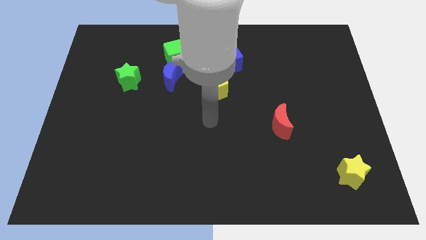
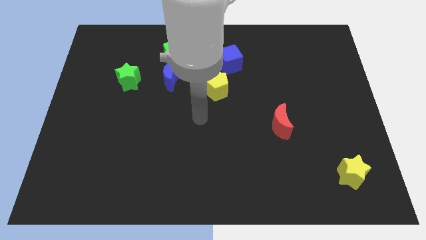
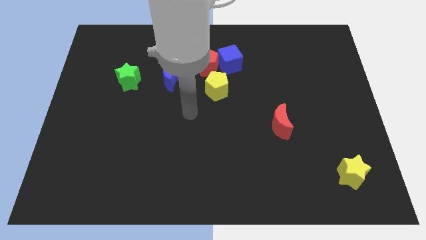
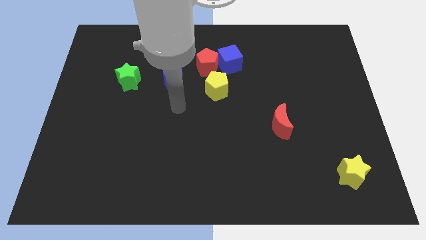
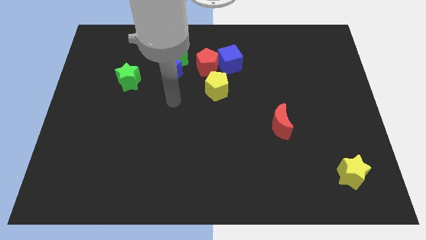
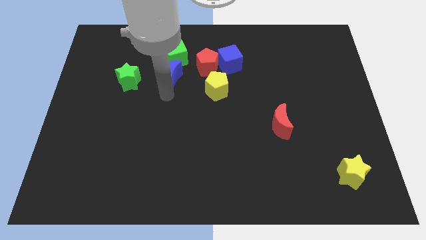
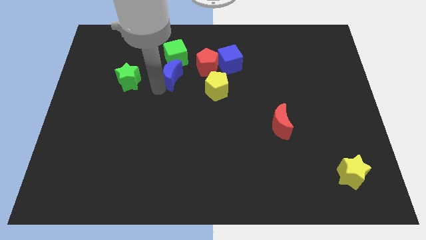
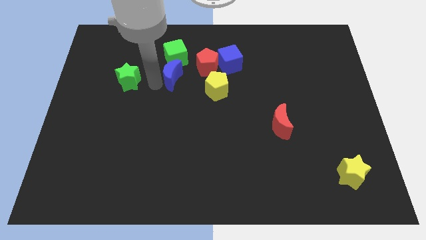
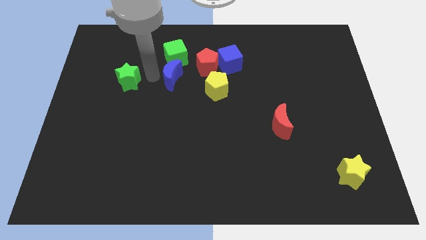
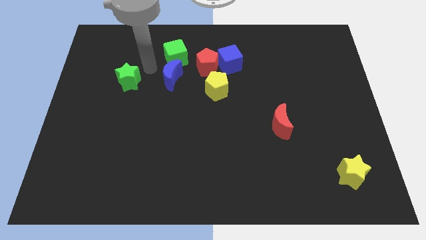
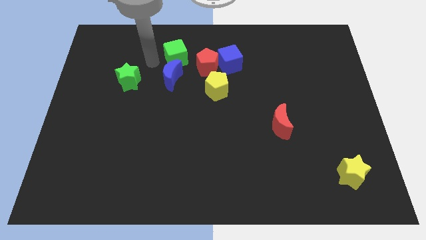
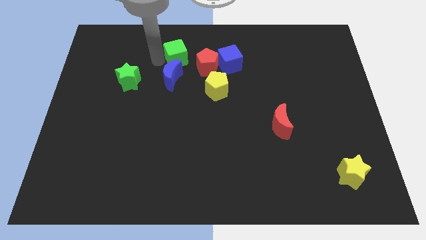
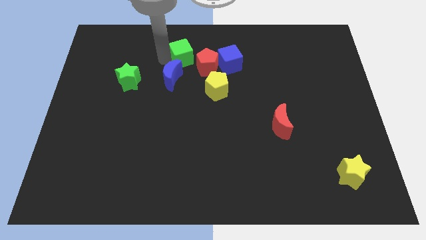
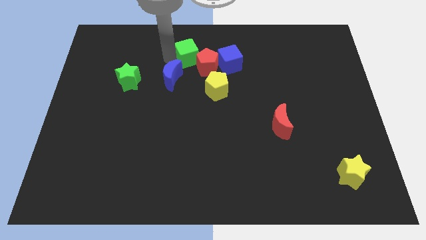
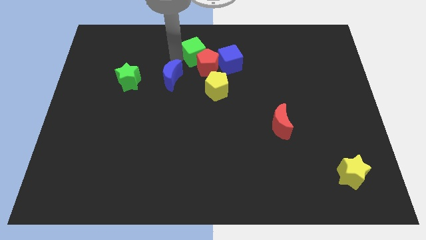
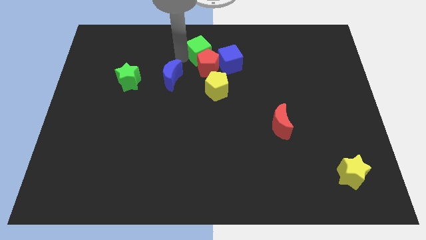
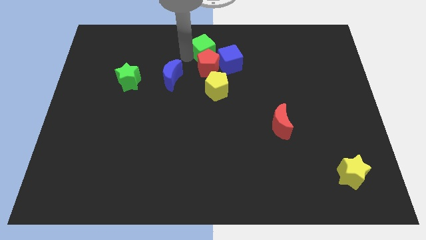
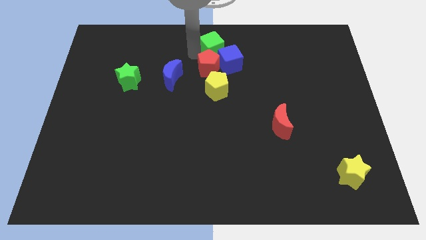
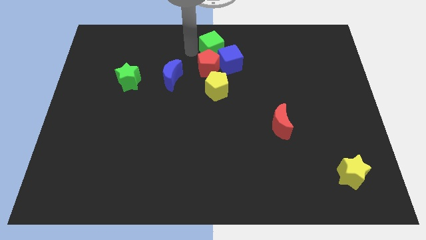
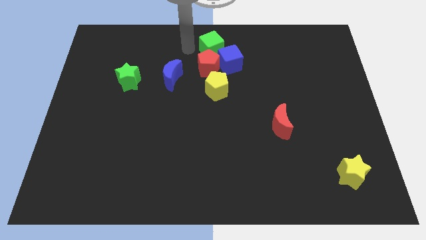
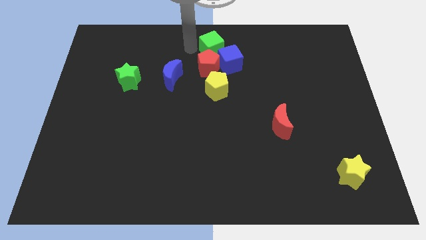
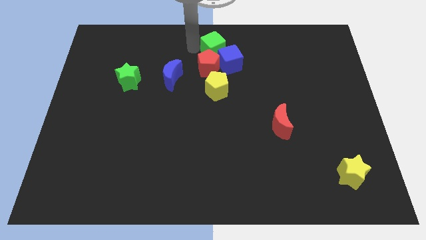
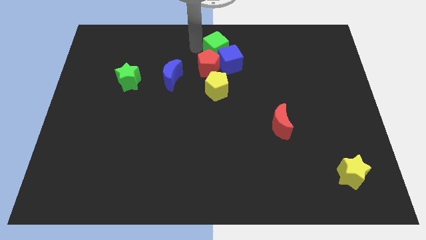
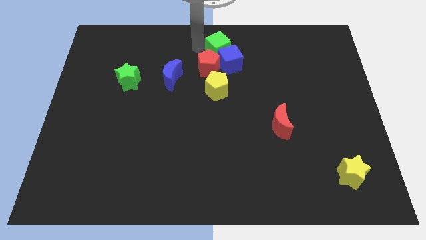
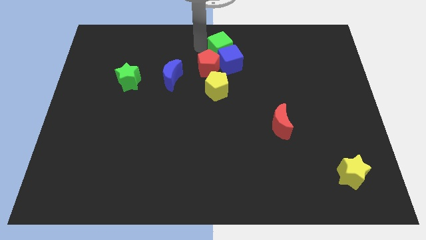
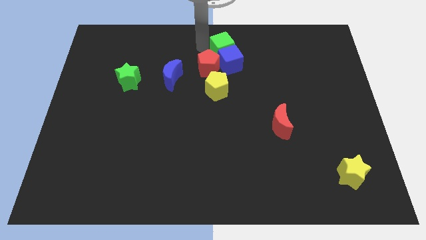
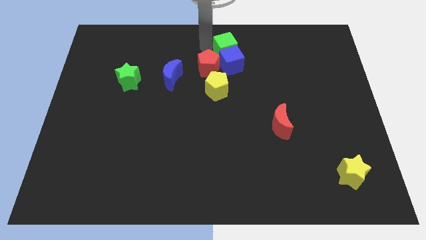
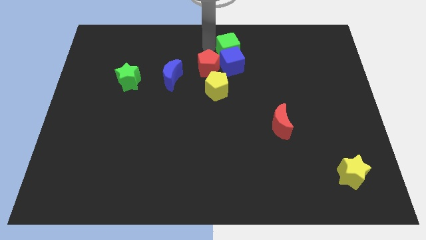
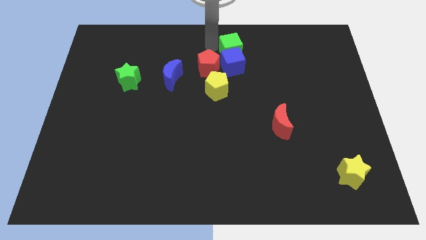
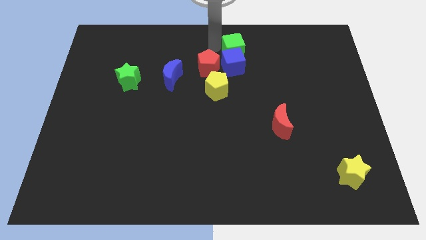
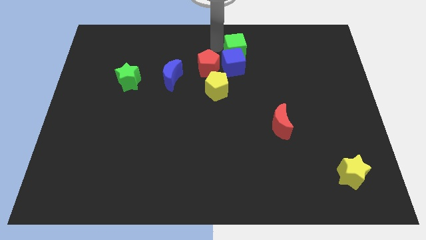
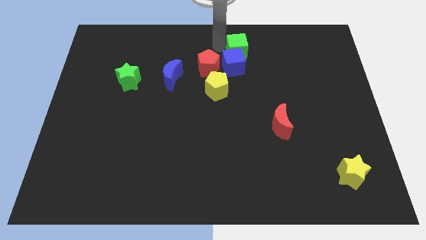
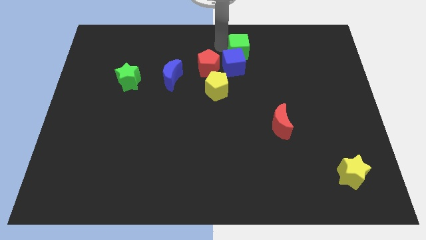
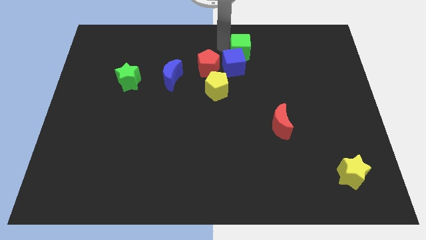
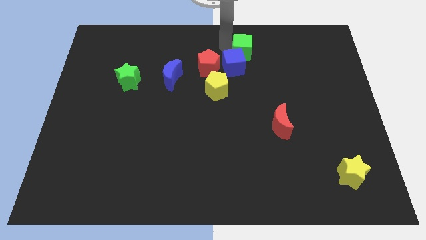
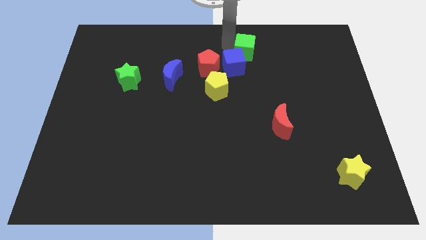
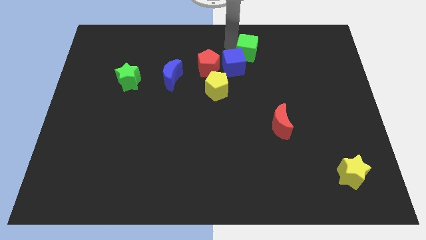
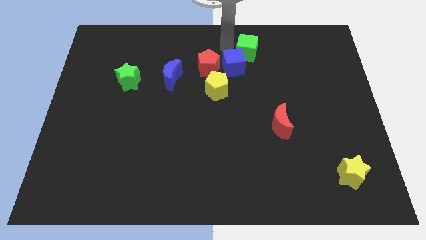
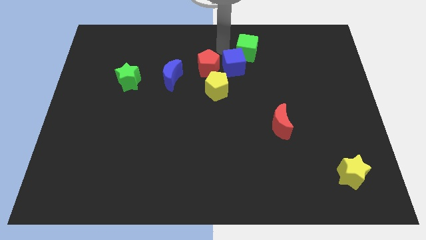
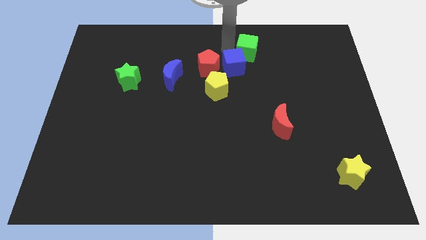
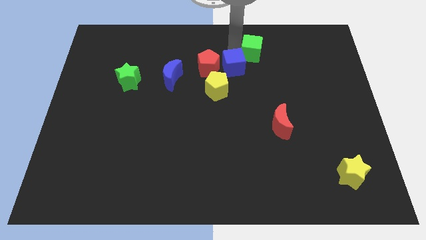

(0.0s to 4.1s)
push the green cube to the right

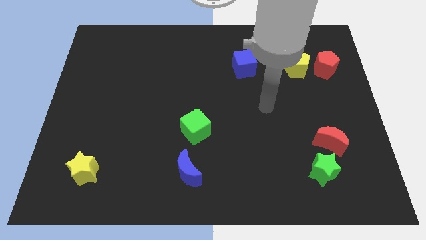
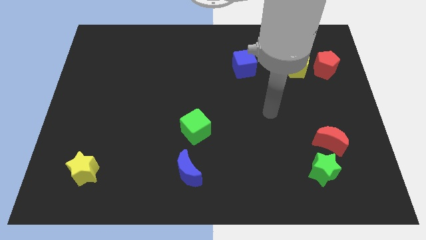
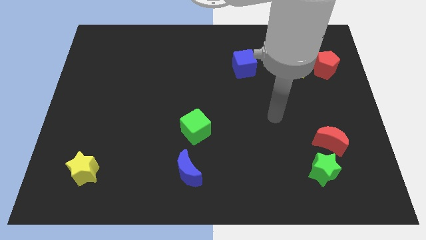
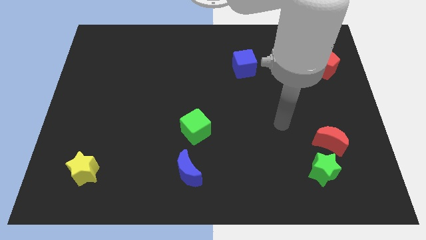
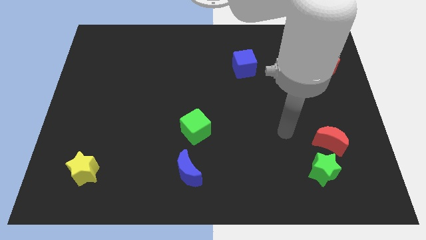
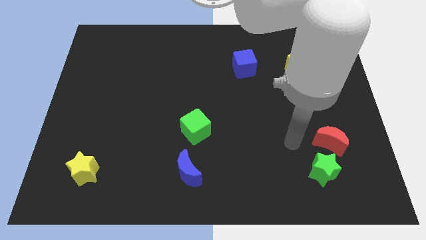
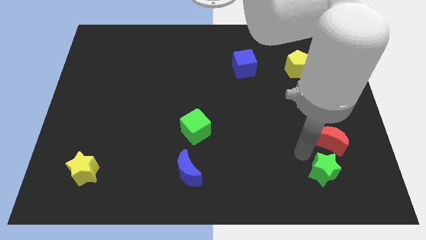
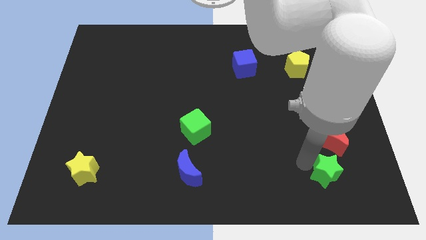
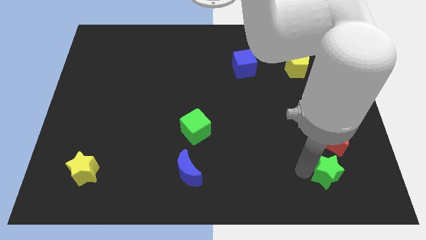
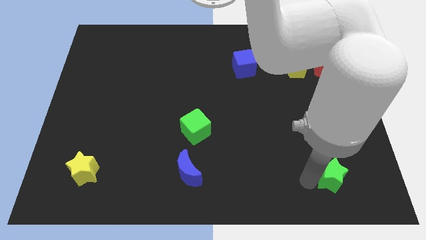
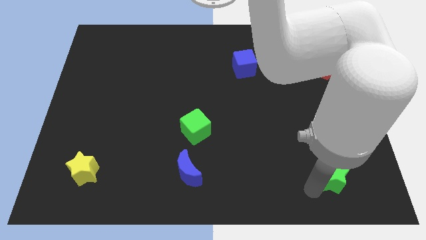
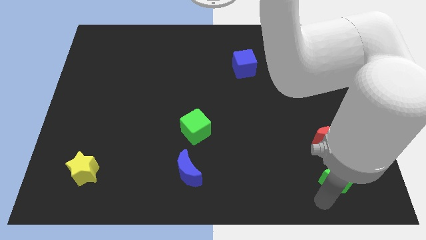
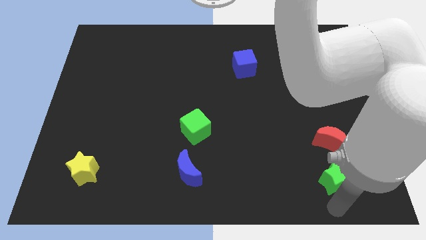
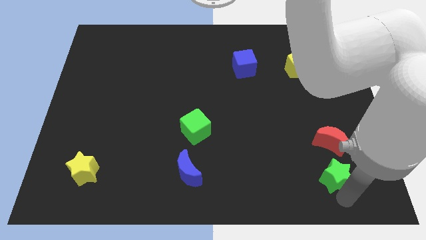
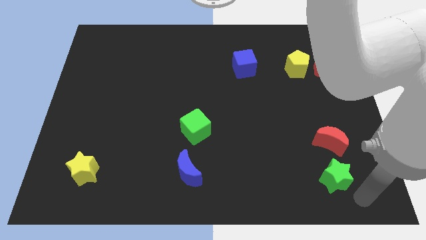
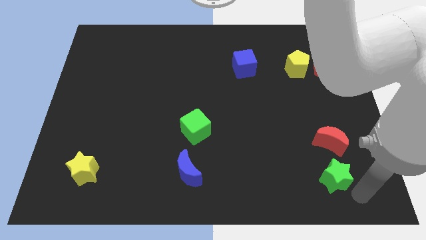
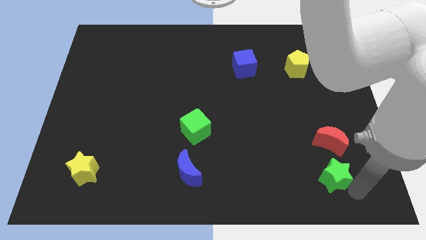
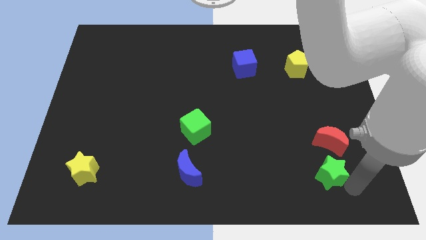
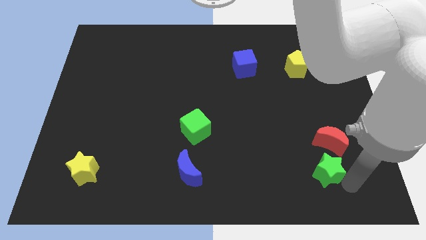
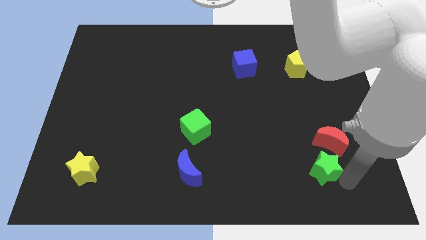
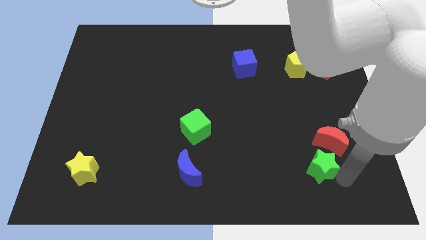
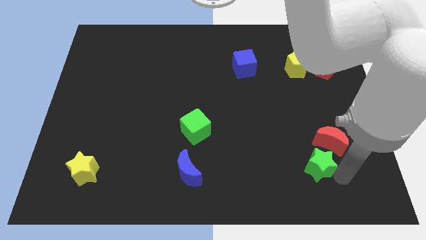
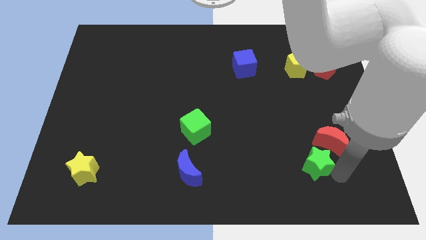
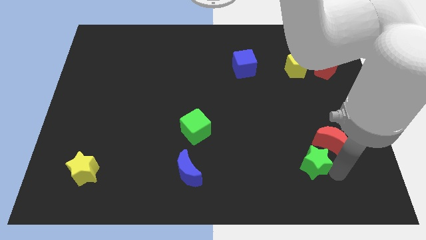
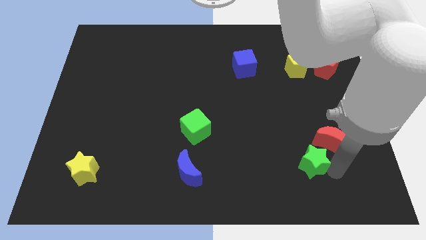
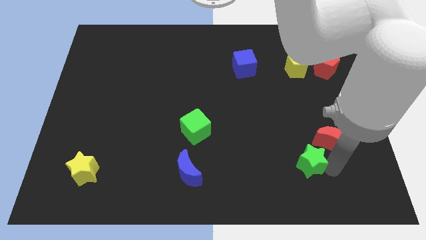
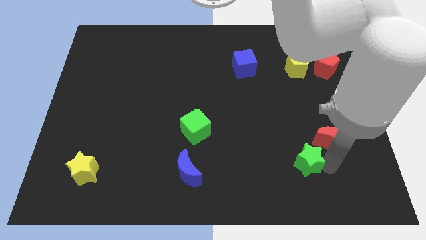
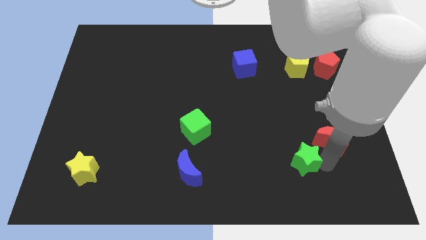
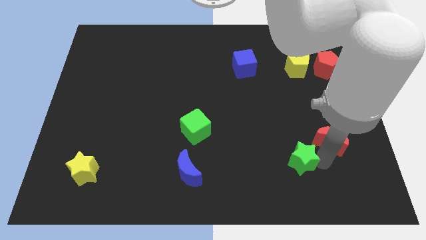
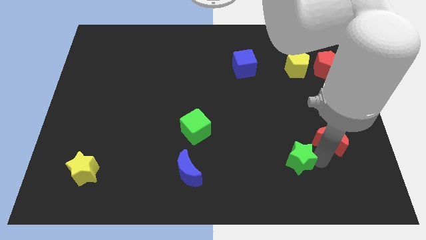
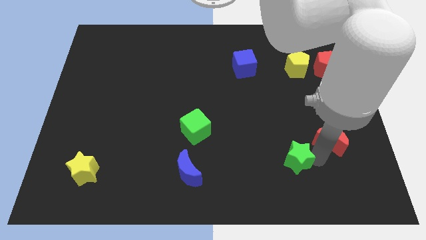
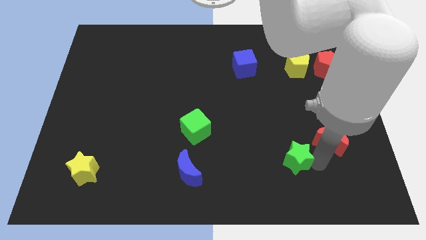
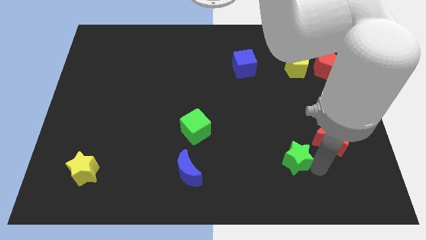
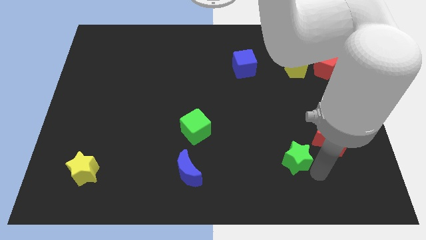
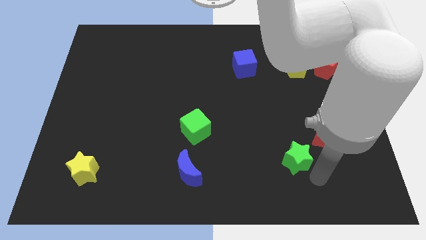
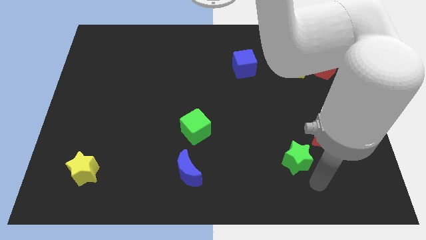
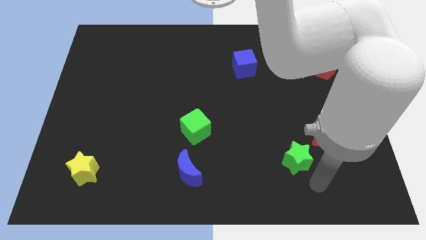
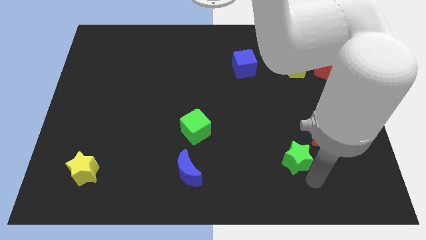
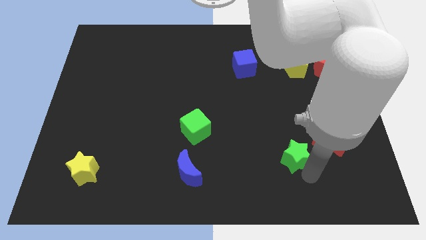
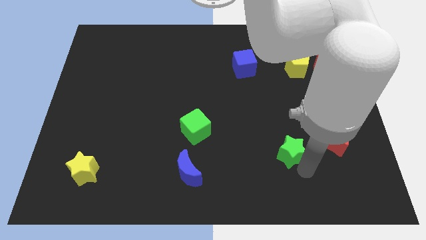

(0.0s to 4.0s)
push the green star upwards and to the left diagonally somewhat

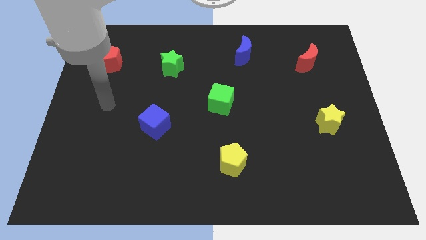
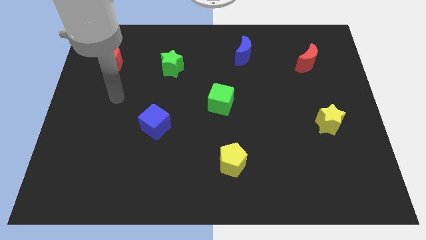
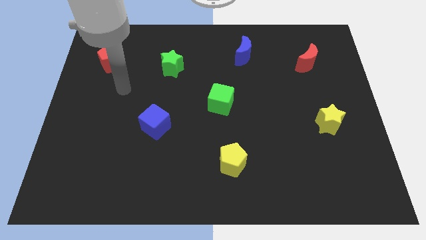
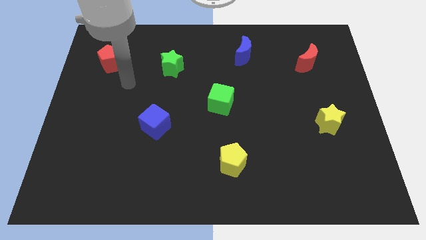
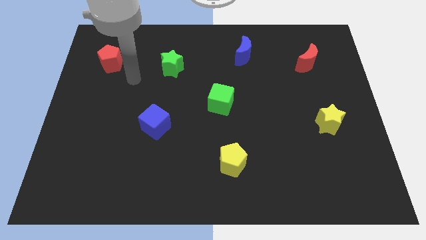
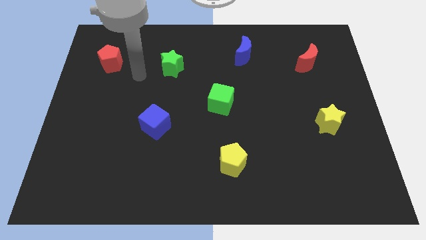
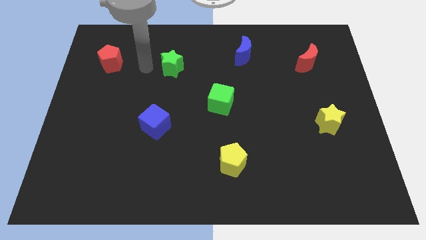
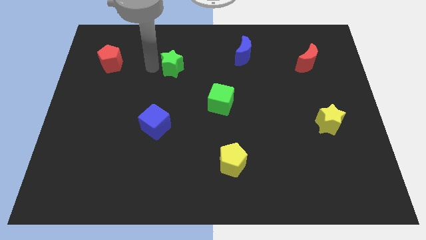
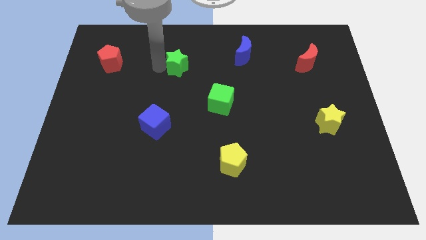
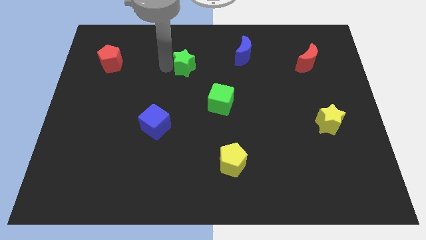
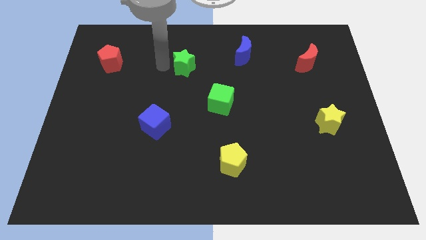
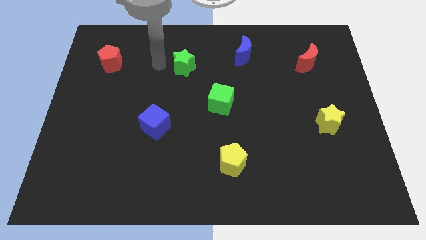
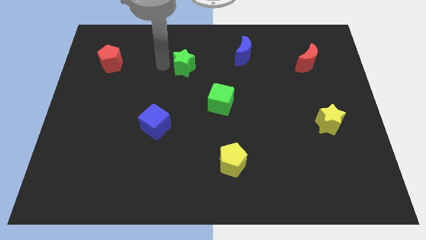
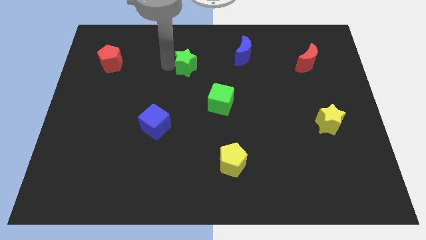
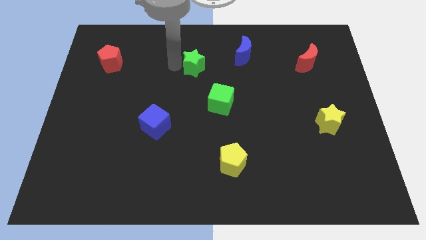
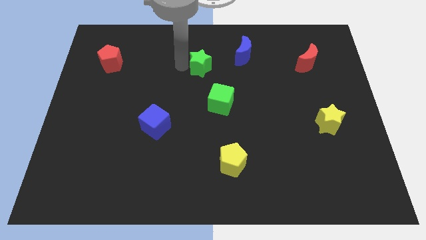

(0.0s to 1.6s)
move the green star to the right somewhat
